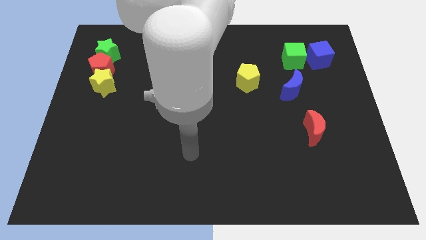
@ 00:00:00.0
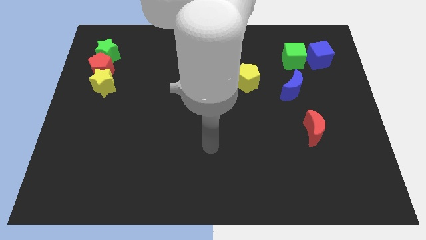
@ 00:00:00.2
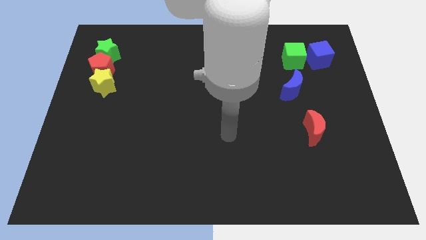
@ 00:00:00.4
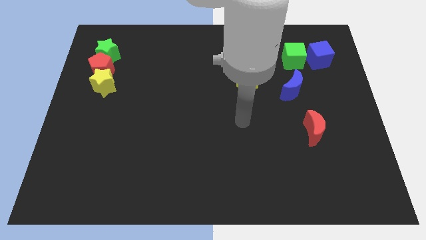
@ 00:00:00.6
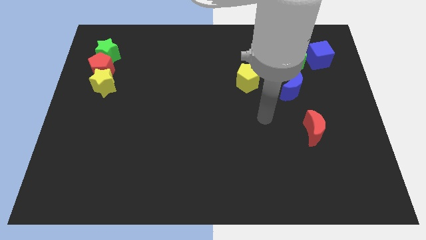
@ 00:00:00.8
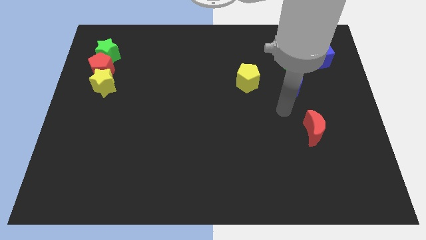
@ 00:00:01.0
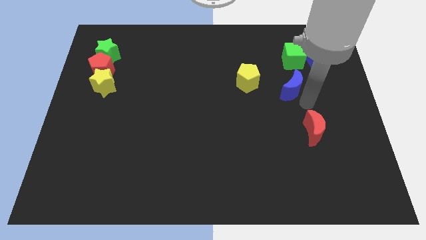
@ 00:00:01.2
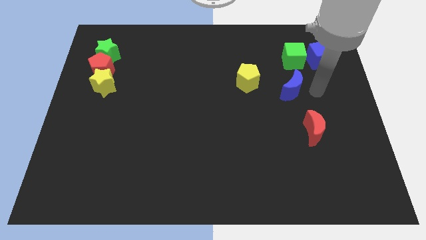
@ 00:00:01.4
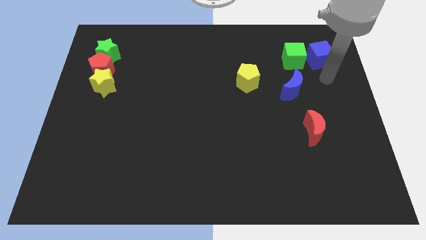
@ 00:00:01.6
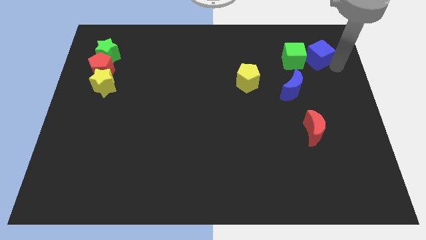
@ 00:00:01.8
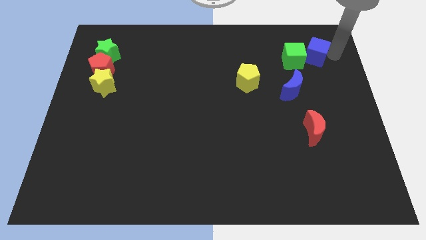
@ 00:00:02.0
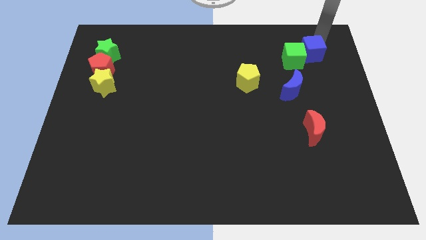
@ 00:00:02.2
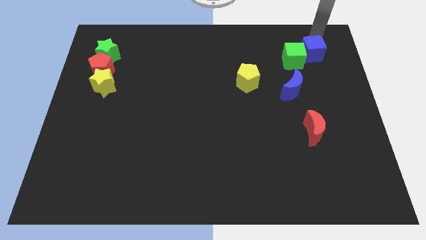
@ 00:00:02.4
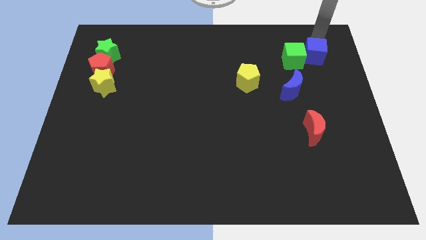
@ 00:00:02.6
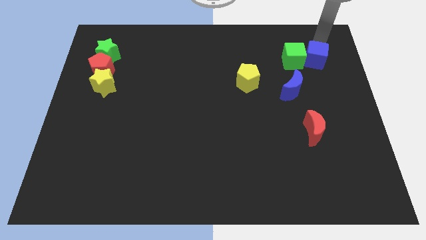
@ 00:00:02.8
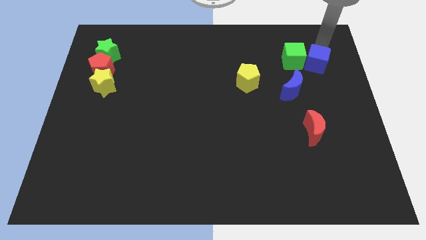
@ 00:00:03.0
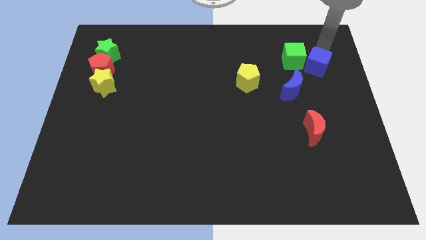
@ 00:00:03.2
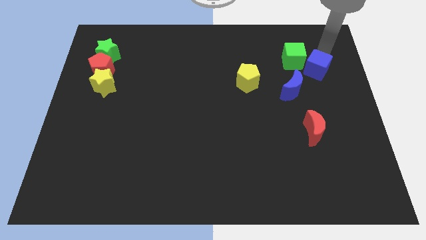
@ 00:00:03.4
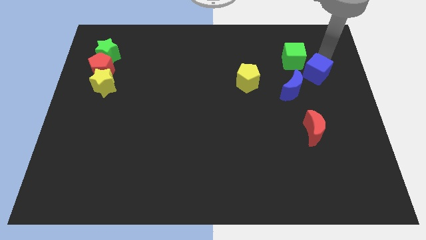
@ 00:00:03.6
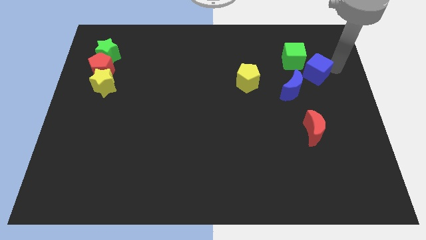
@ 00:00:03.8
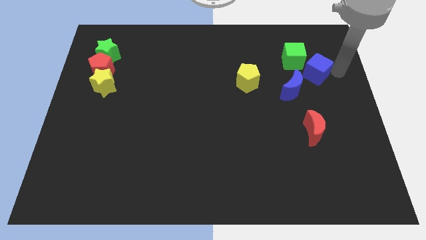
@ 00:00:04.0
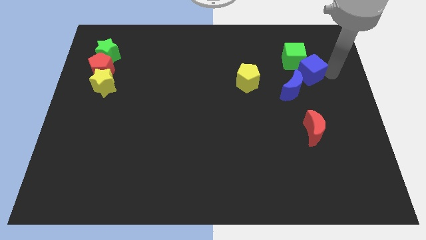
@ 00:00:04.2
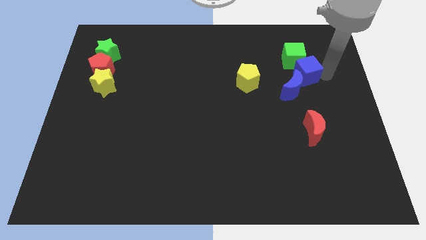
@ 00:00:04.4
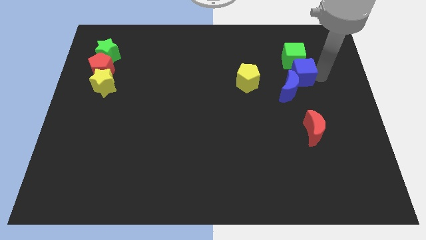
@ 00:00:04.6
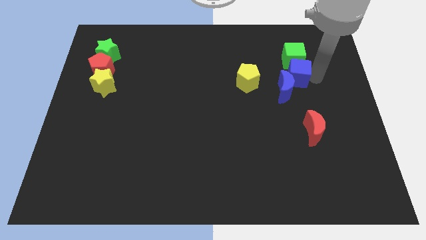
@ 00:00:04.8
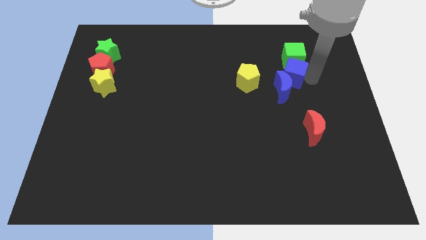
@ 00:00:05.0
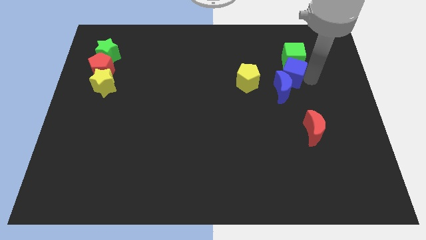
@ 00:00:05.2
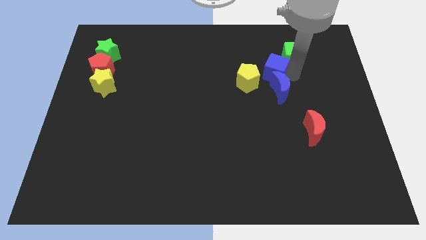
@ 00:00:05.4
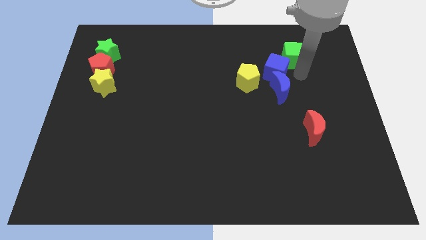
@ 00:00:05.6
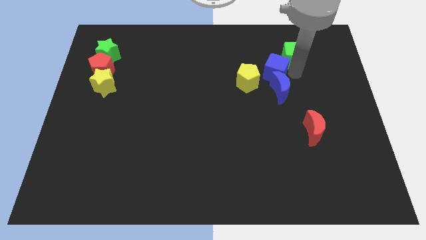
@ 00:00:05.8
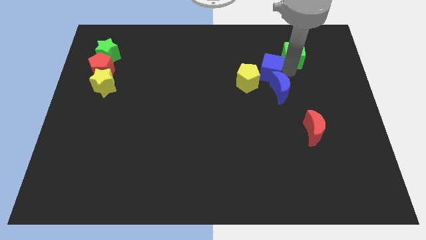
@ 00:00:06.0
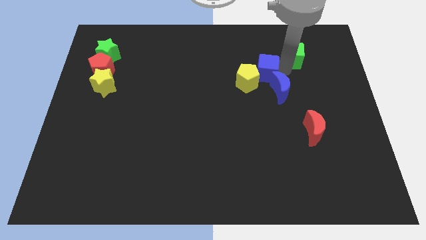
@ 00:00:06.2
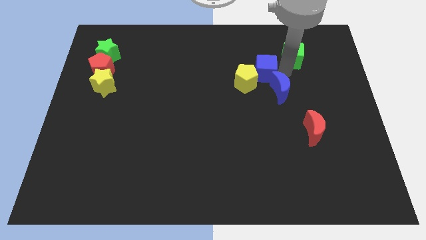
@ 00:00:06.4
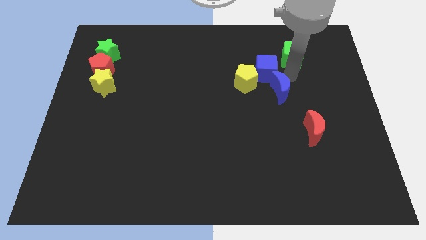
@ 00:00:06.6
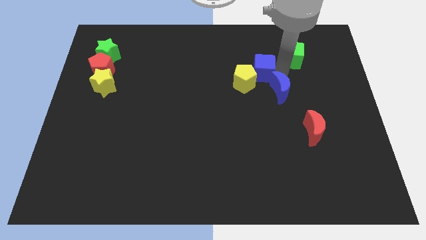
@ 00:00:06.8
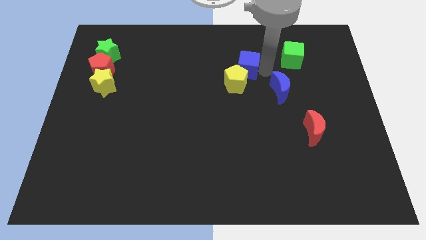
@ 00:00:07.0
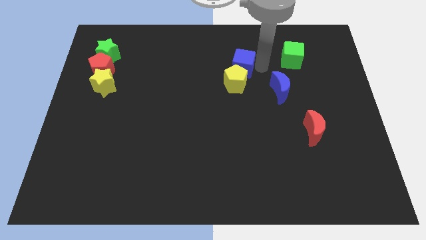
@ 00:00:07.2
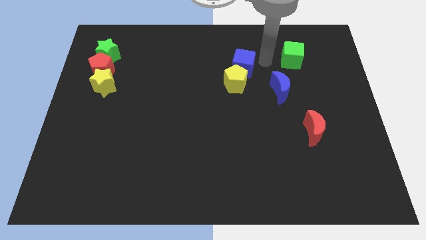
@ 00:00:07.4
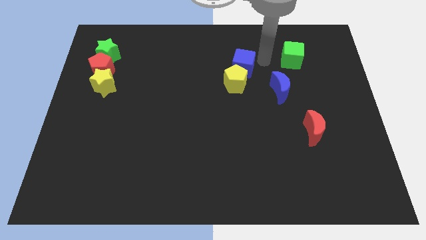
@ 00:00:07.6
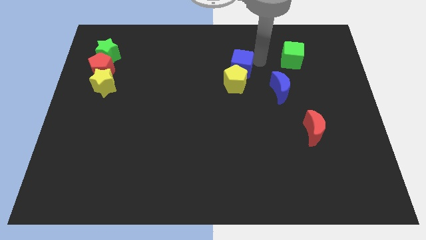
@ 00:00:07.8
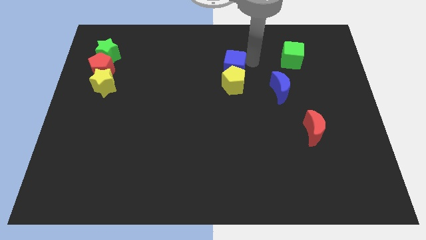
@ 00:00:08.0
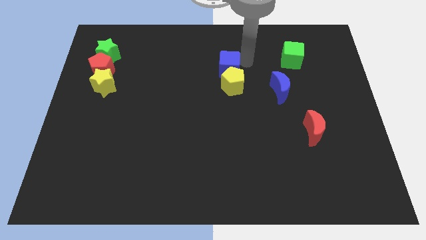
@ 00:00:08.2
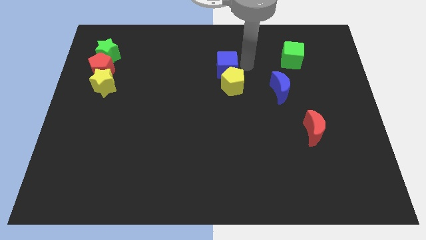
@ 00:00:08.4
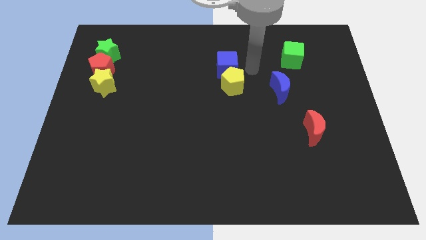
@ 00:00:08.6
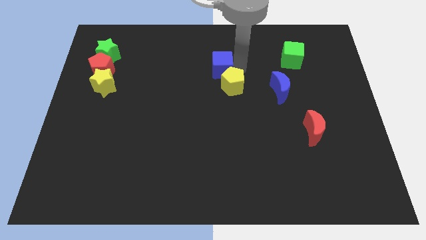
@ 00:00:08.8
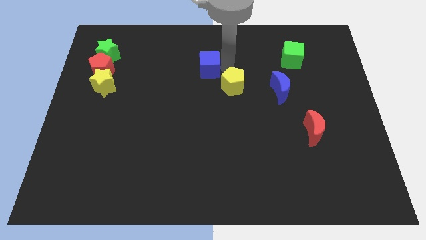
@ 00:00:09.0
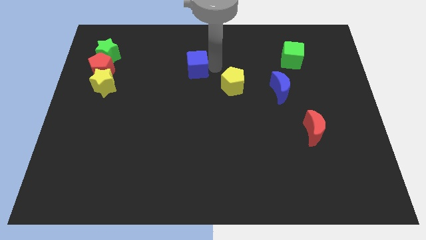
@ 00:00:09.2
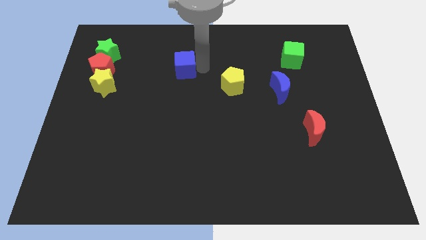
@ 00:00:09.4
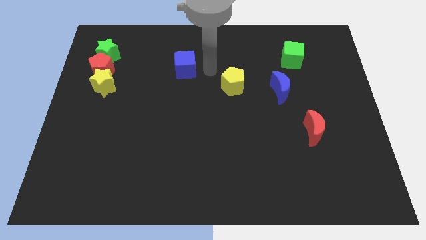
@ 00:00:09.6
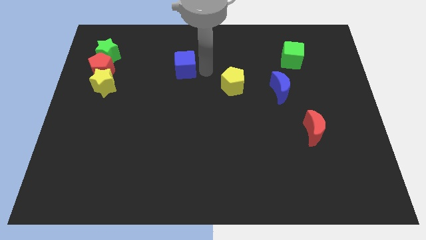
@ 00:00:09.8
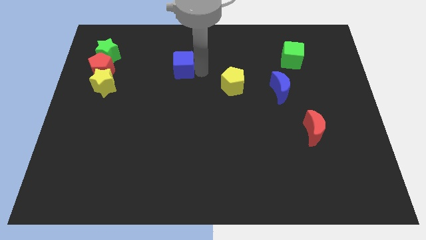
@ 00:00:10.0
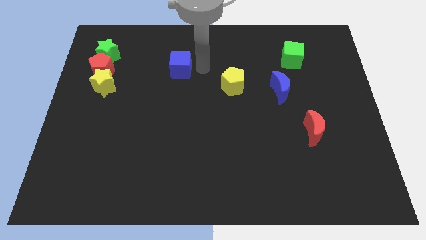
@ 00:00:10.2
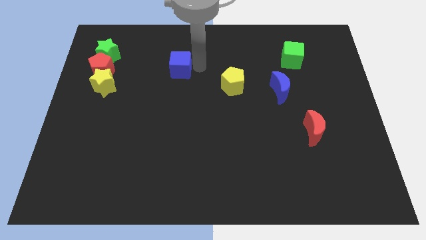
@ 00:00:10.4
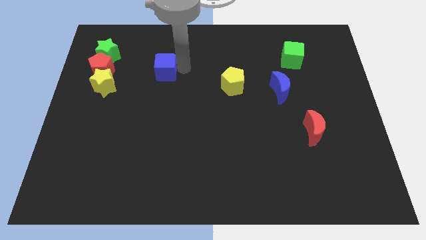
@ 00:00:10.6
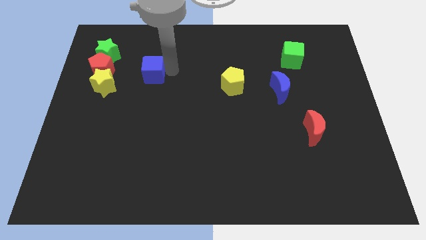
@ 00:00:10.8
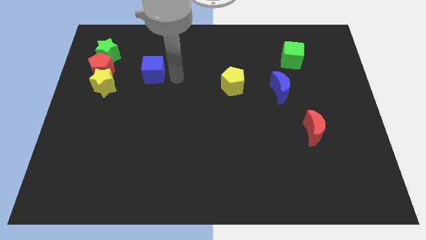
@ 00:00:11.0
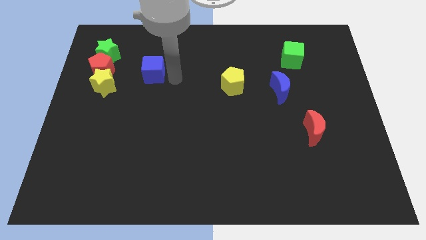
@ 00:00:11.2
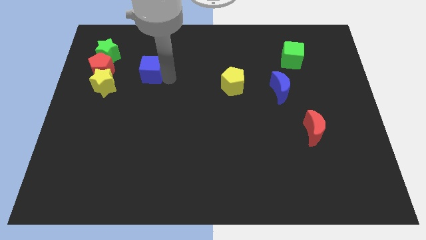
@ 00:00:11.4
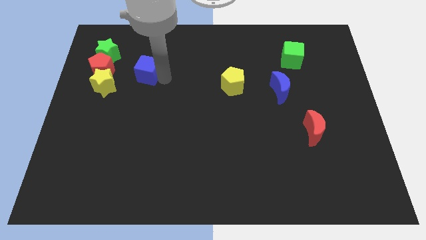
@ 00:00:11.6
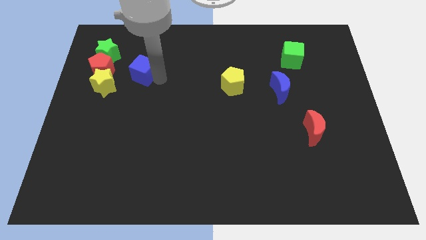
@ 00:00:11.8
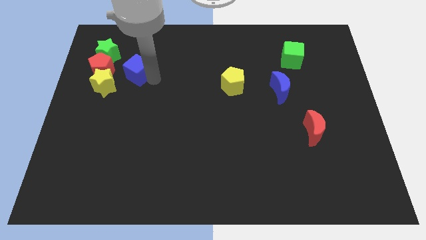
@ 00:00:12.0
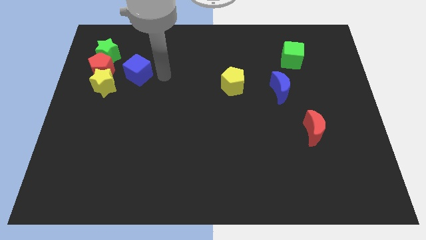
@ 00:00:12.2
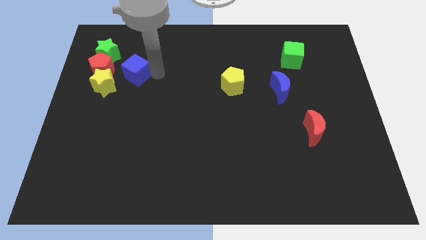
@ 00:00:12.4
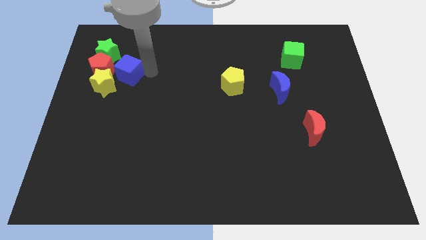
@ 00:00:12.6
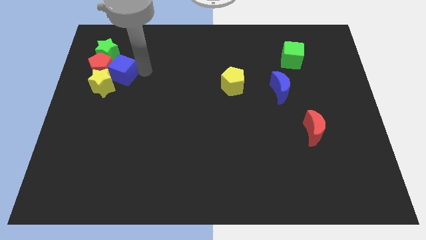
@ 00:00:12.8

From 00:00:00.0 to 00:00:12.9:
push the blue cube close to the red pentagon
